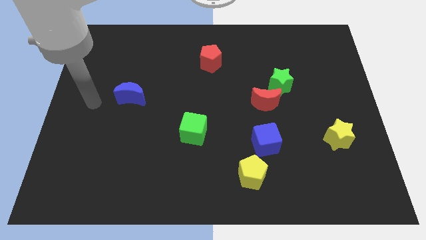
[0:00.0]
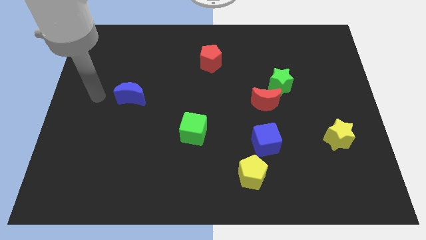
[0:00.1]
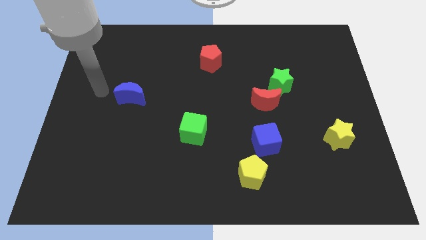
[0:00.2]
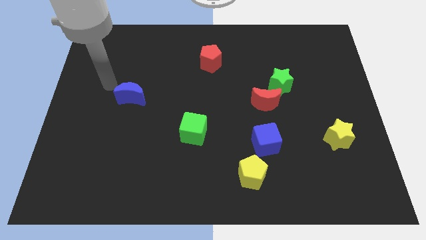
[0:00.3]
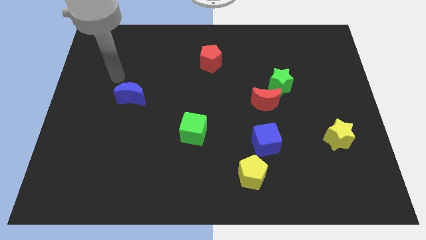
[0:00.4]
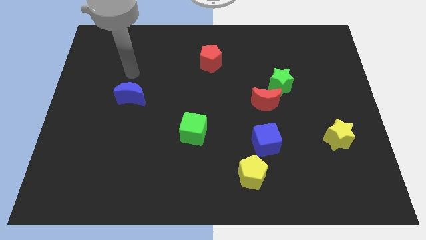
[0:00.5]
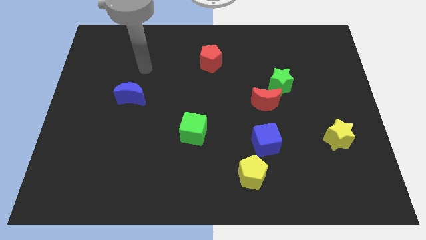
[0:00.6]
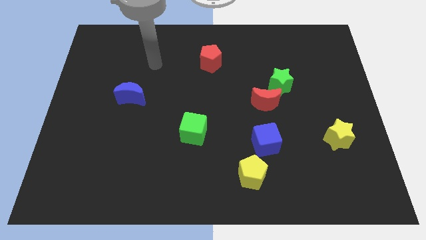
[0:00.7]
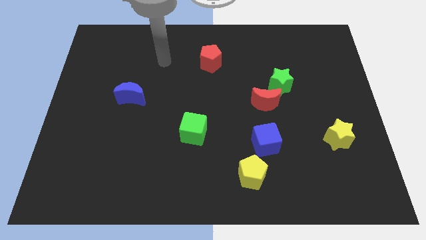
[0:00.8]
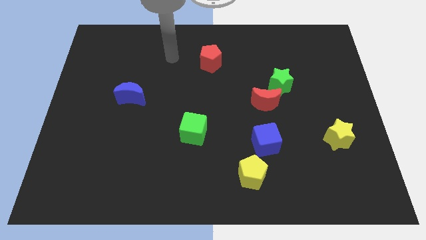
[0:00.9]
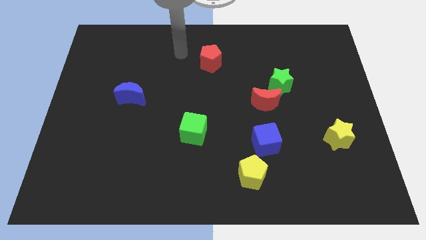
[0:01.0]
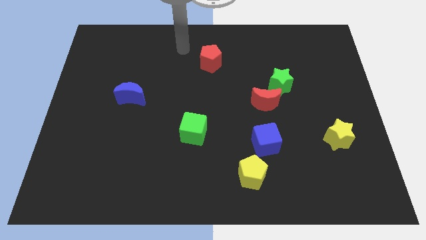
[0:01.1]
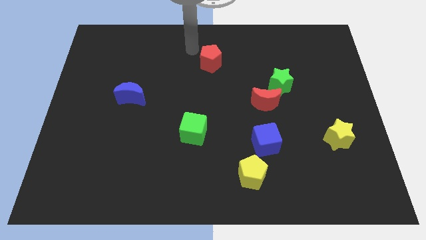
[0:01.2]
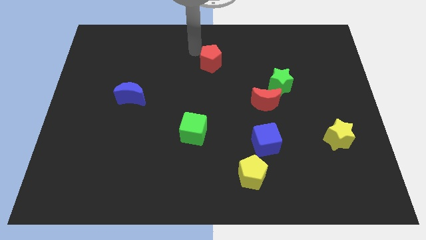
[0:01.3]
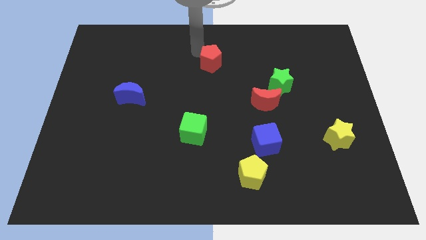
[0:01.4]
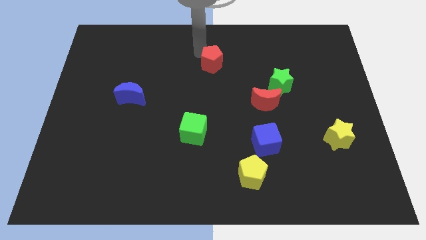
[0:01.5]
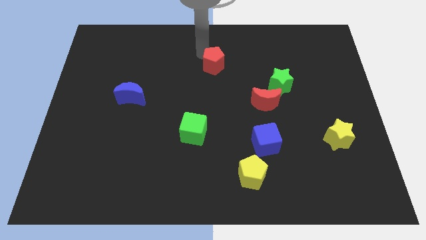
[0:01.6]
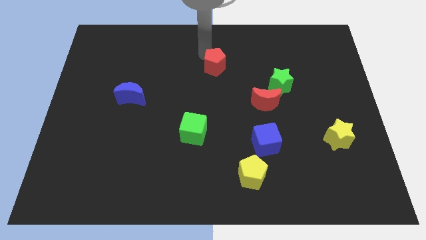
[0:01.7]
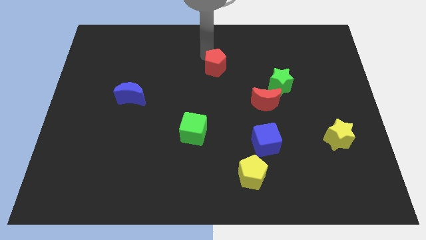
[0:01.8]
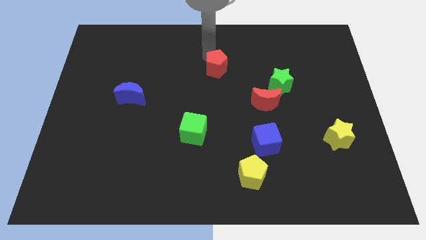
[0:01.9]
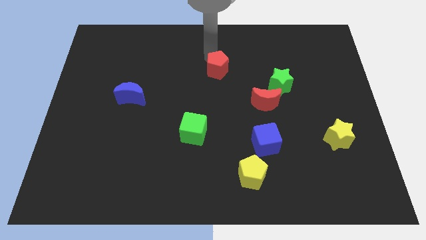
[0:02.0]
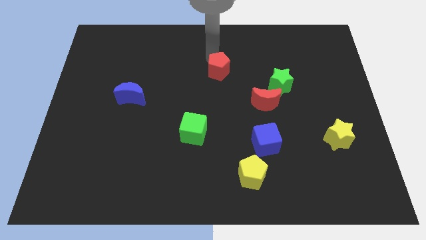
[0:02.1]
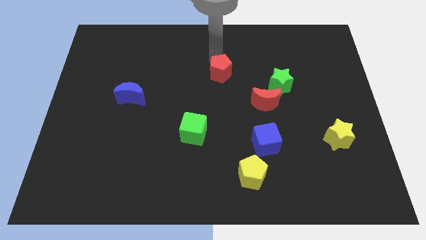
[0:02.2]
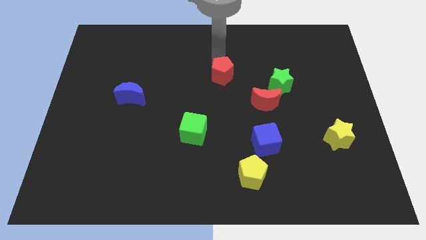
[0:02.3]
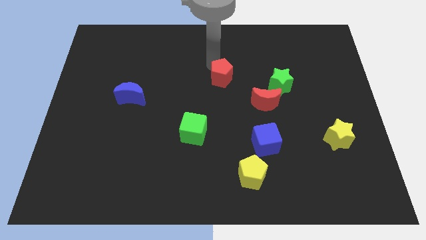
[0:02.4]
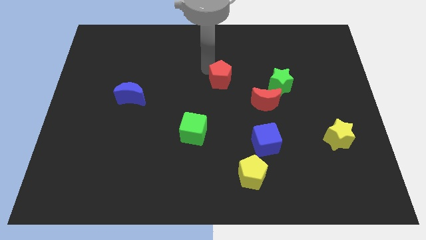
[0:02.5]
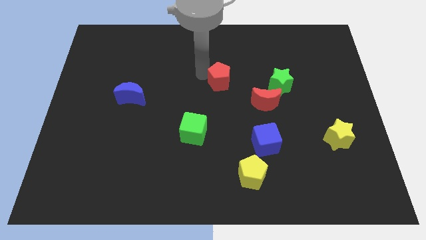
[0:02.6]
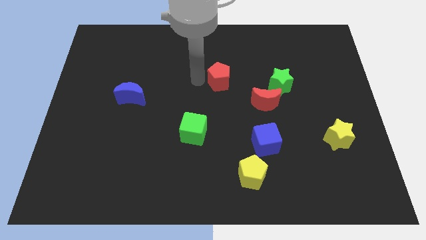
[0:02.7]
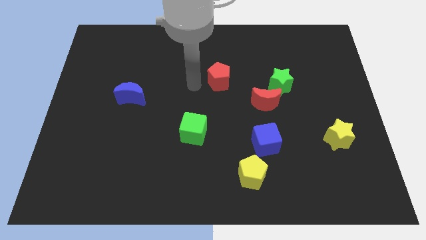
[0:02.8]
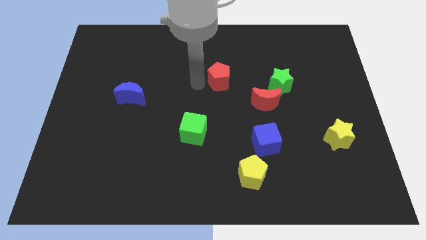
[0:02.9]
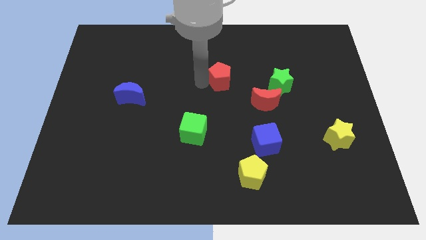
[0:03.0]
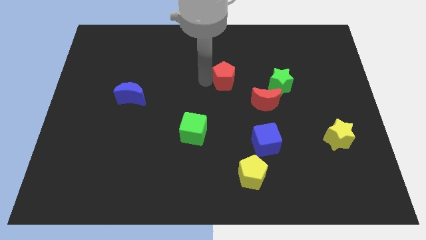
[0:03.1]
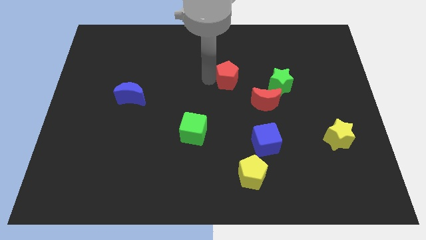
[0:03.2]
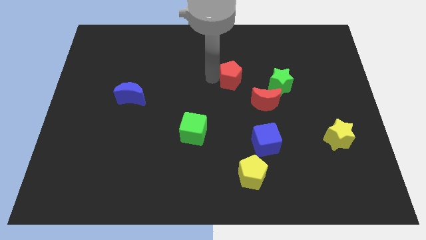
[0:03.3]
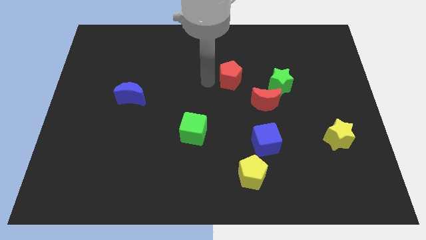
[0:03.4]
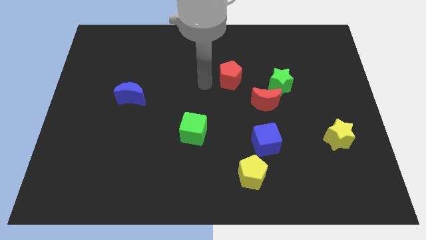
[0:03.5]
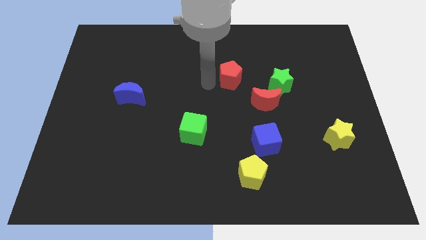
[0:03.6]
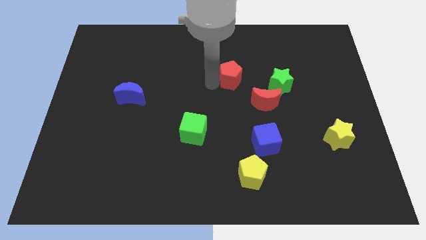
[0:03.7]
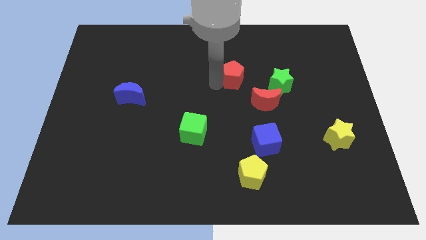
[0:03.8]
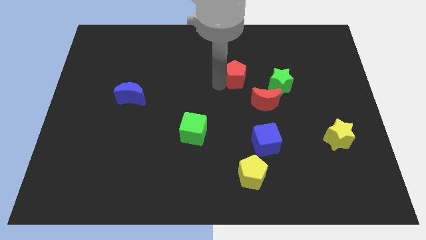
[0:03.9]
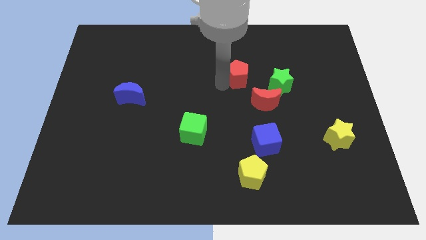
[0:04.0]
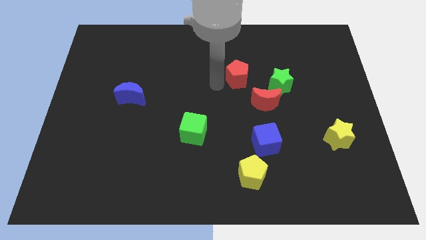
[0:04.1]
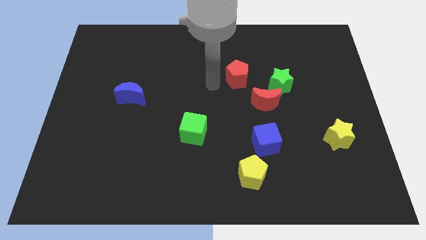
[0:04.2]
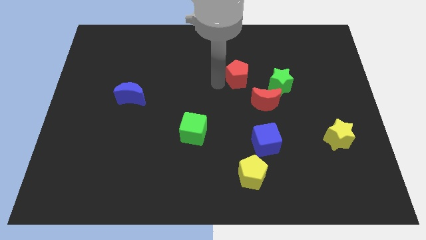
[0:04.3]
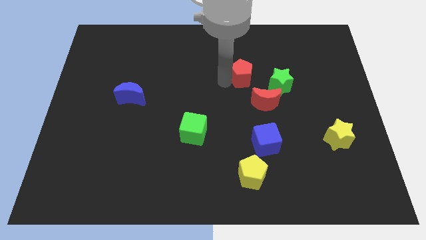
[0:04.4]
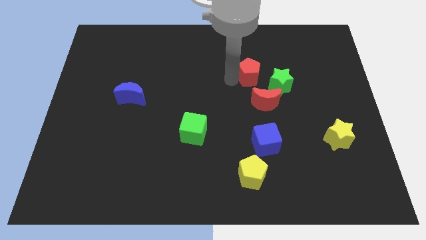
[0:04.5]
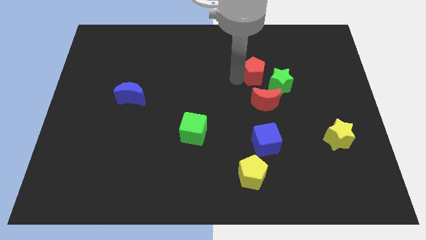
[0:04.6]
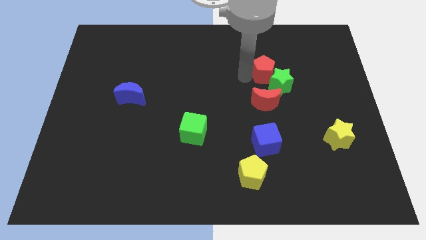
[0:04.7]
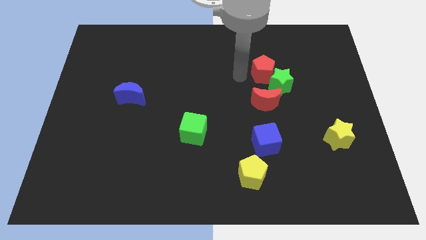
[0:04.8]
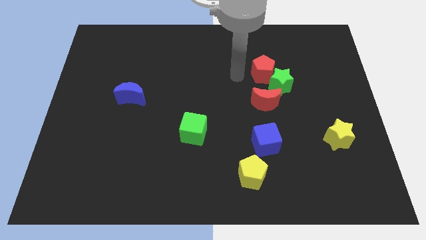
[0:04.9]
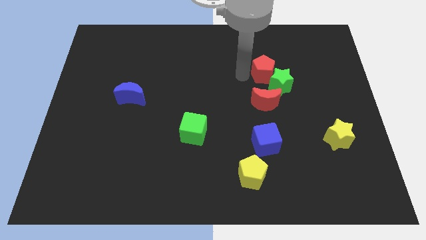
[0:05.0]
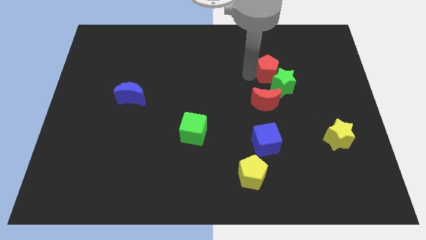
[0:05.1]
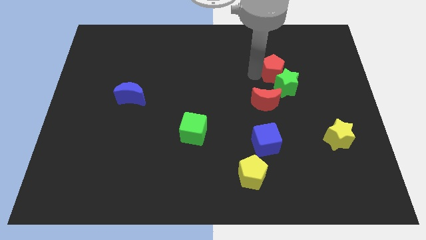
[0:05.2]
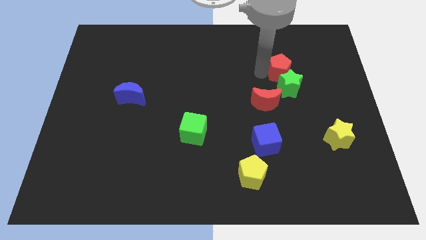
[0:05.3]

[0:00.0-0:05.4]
slide the red pentagon diagonally up and to the right of the red moon

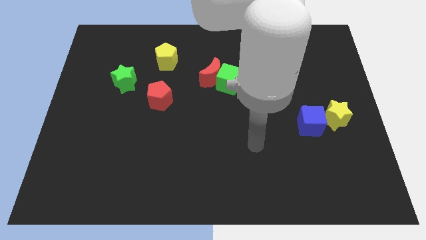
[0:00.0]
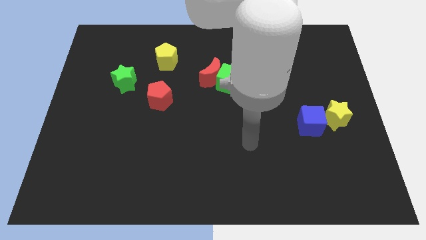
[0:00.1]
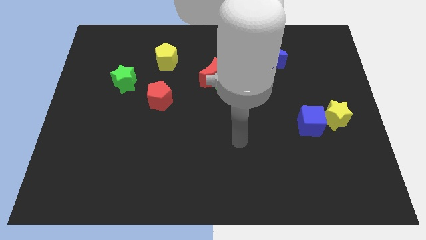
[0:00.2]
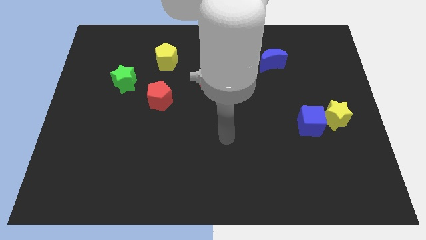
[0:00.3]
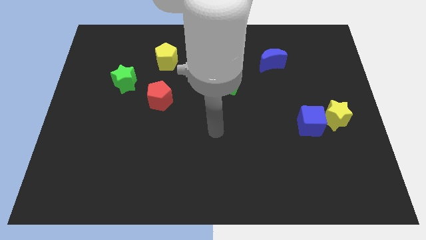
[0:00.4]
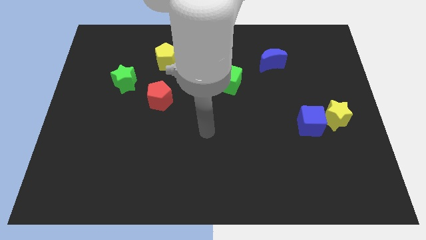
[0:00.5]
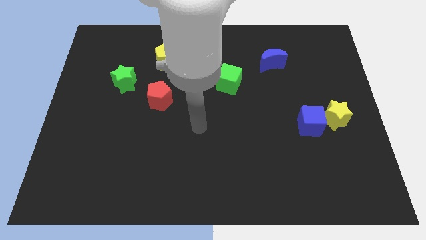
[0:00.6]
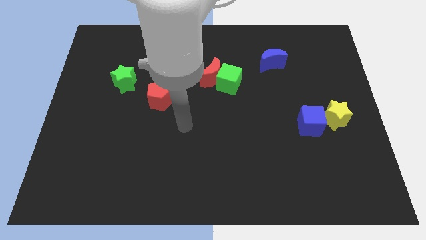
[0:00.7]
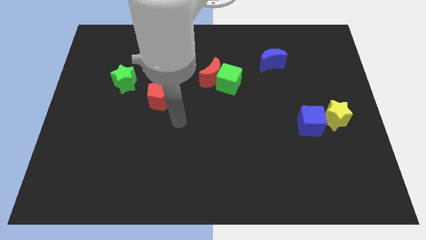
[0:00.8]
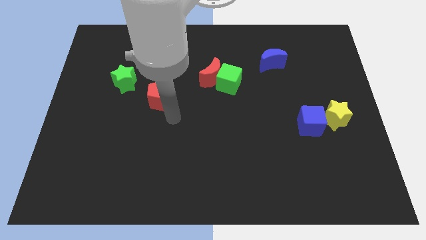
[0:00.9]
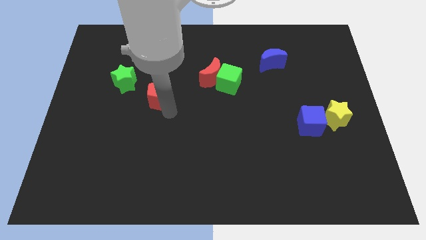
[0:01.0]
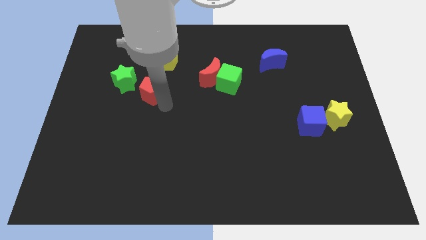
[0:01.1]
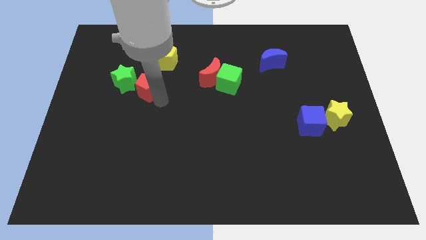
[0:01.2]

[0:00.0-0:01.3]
slide the red pentagon diagonally down and to the left of the yellow pentagon

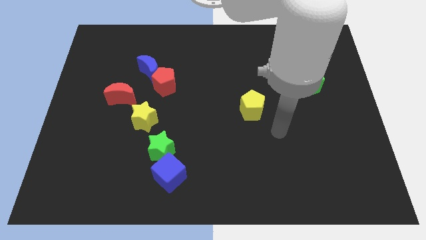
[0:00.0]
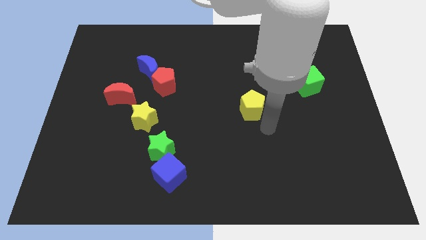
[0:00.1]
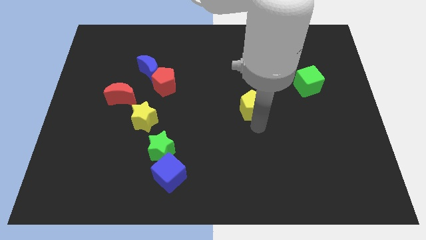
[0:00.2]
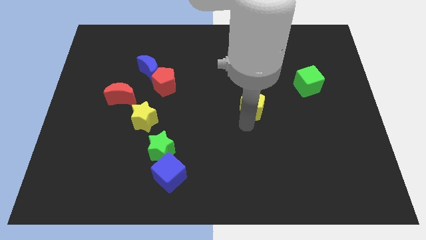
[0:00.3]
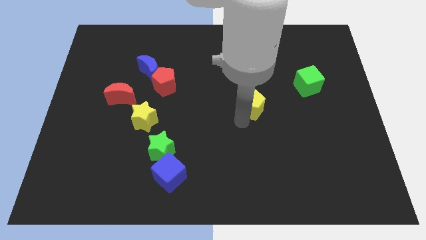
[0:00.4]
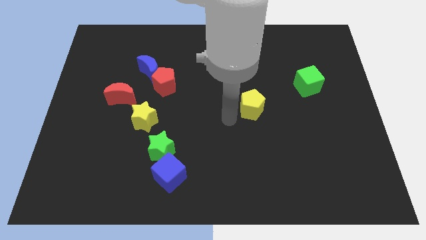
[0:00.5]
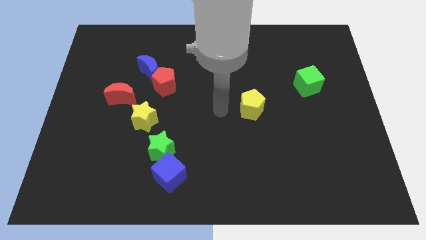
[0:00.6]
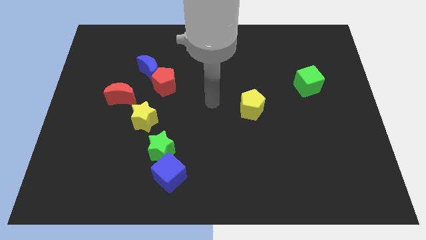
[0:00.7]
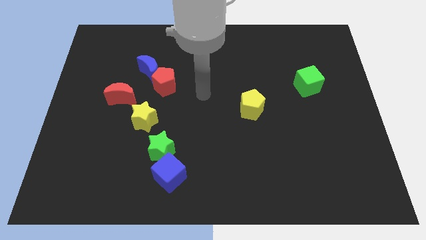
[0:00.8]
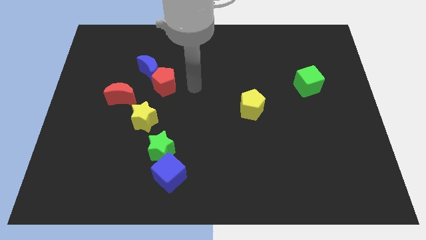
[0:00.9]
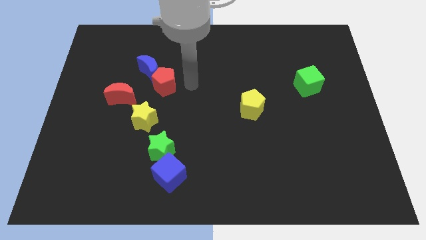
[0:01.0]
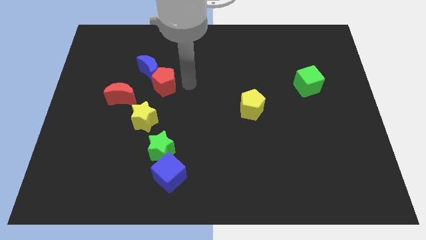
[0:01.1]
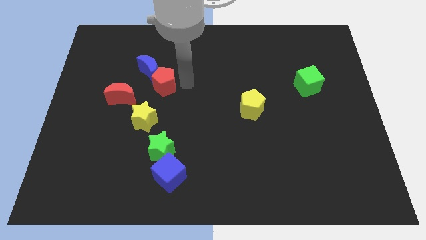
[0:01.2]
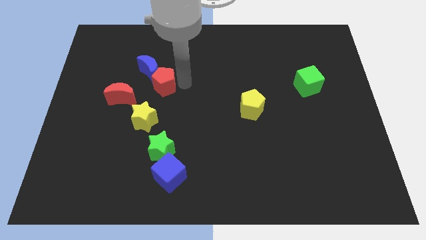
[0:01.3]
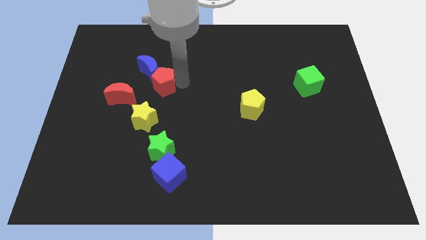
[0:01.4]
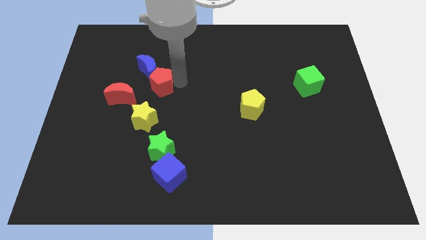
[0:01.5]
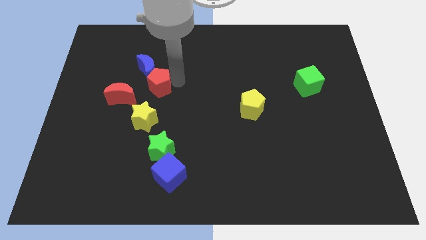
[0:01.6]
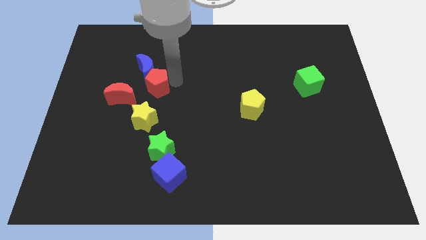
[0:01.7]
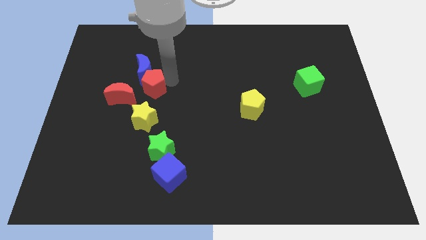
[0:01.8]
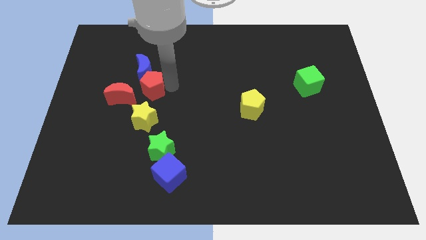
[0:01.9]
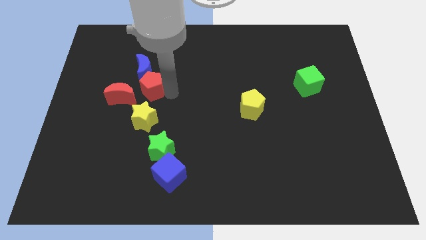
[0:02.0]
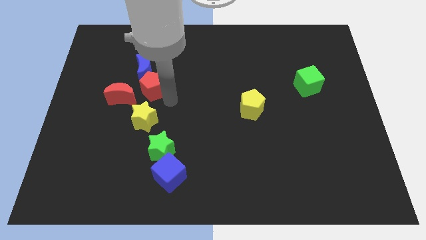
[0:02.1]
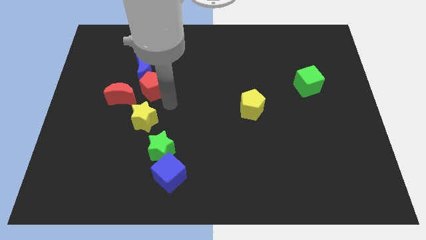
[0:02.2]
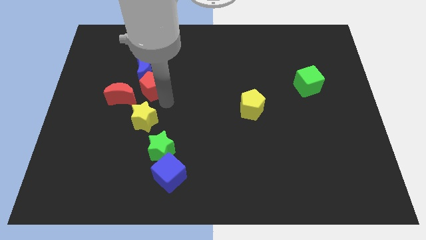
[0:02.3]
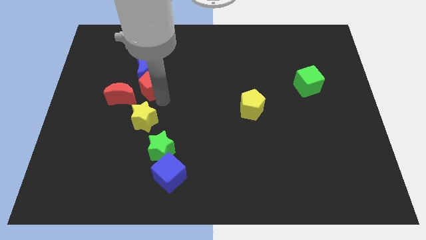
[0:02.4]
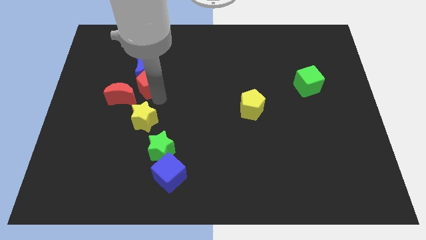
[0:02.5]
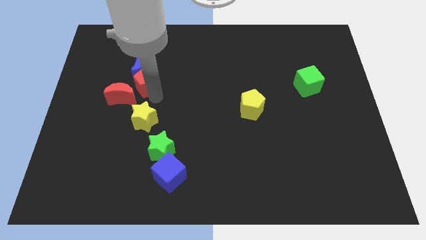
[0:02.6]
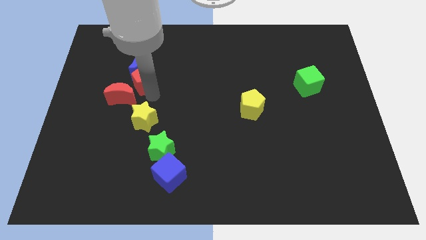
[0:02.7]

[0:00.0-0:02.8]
put the red pentagon to the top side of the red moon
